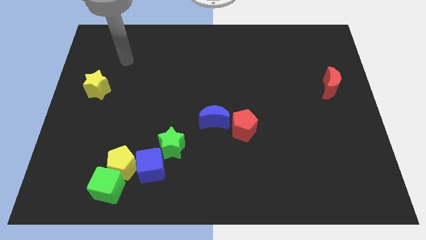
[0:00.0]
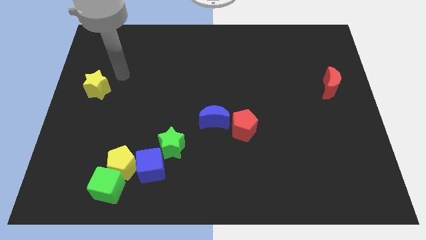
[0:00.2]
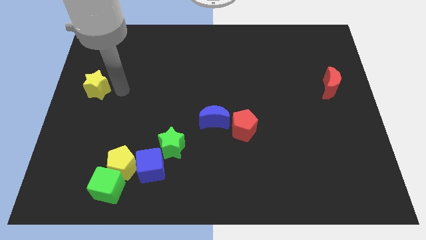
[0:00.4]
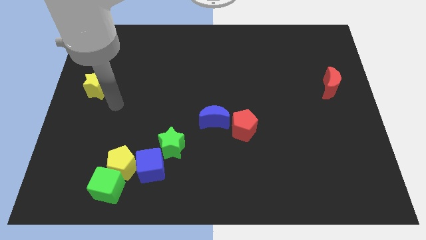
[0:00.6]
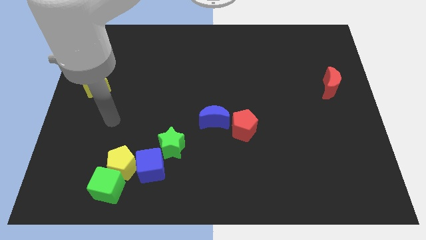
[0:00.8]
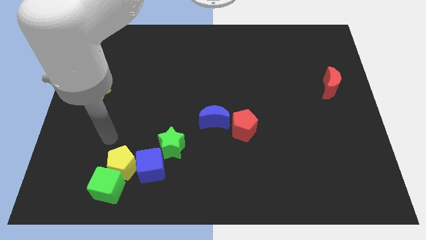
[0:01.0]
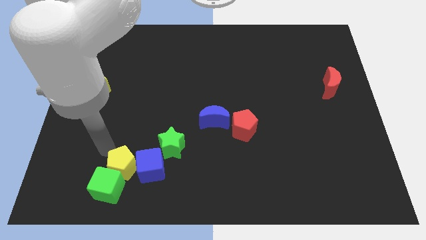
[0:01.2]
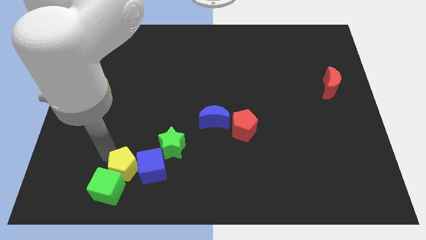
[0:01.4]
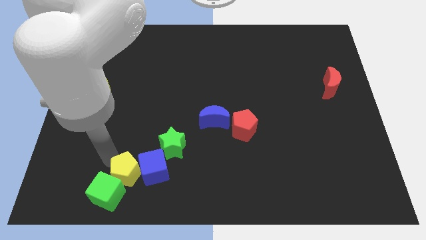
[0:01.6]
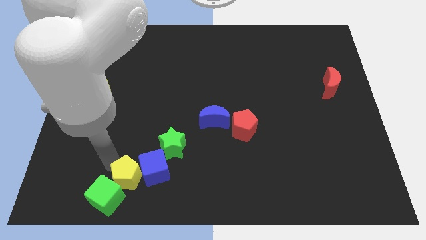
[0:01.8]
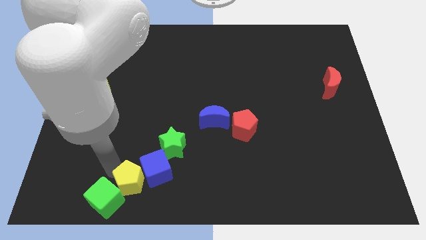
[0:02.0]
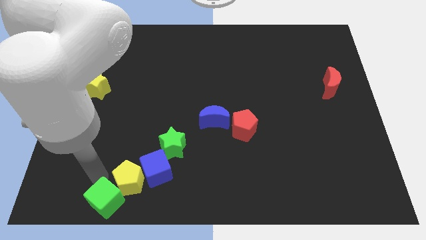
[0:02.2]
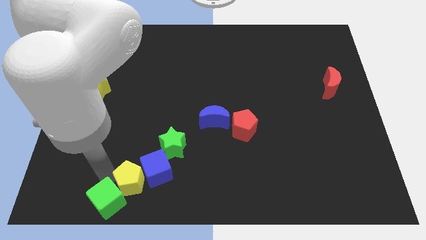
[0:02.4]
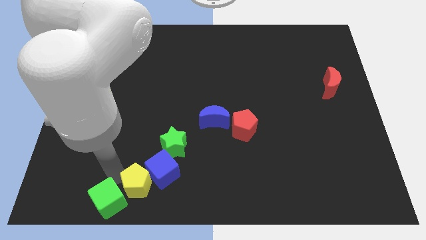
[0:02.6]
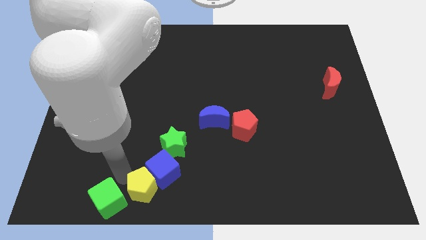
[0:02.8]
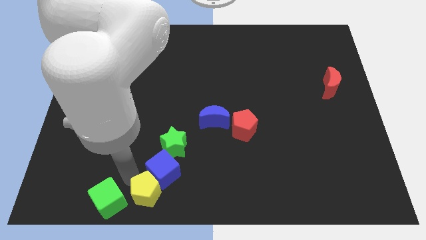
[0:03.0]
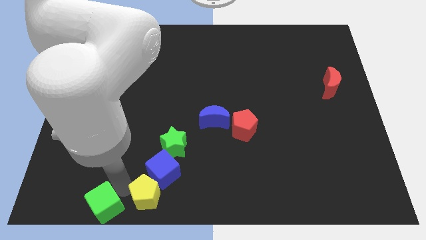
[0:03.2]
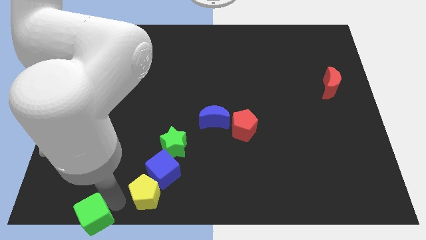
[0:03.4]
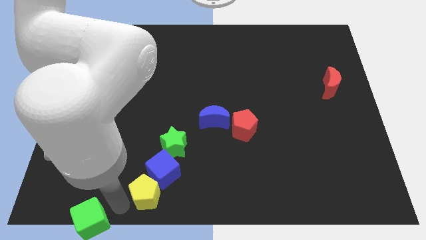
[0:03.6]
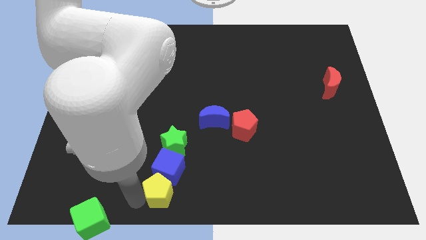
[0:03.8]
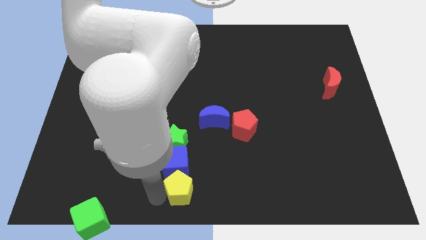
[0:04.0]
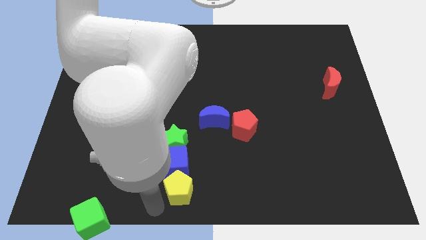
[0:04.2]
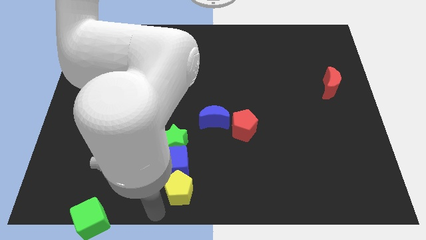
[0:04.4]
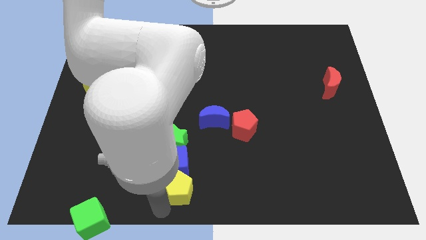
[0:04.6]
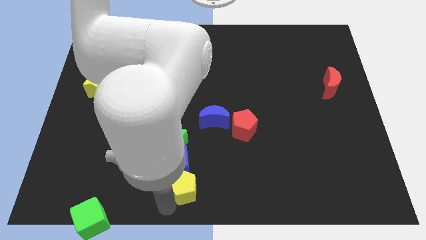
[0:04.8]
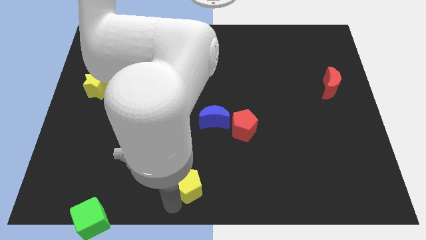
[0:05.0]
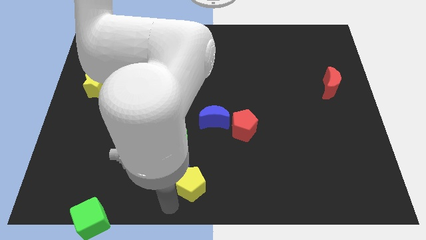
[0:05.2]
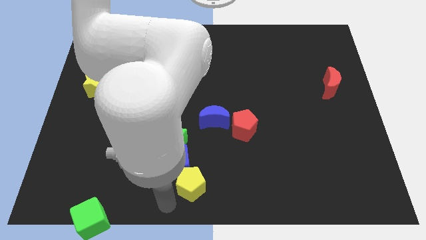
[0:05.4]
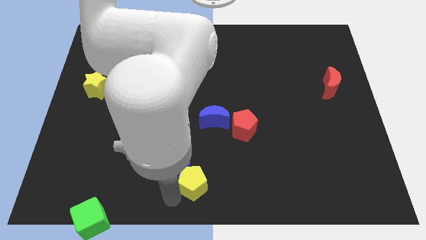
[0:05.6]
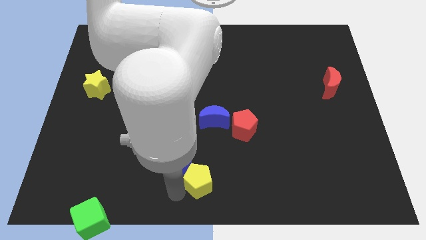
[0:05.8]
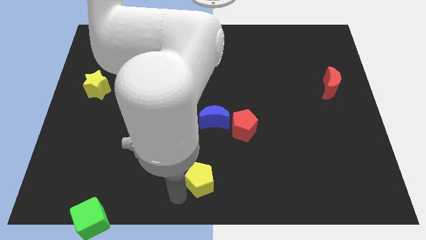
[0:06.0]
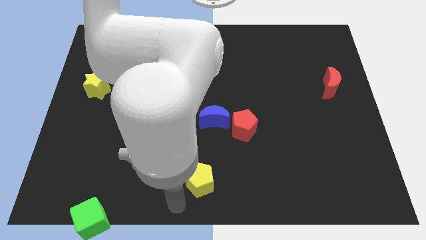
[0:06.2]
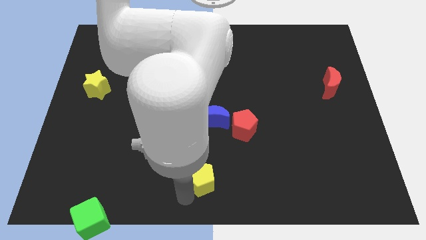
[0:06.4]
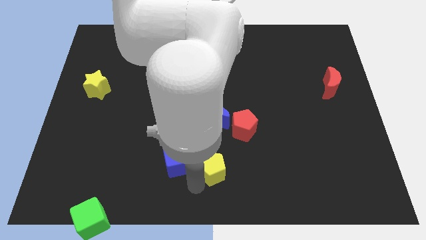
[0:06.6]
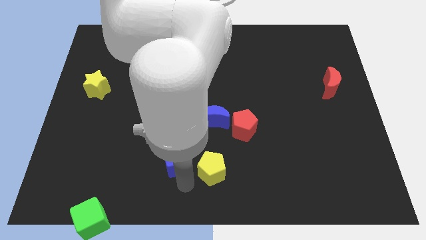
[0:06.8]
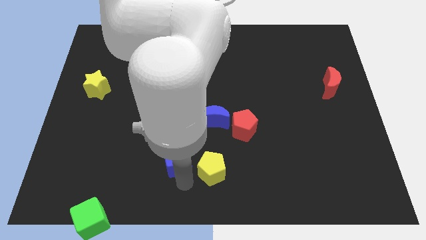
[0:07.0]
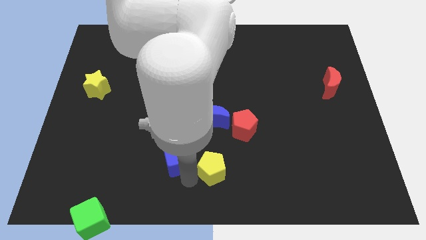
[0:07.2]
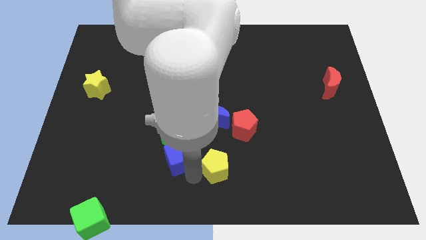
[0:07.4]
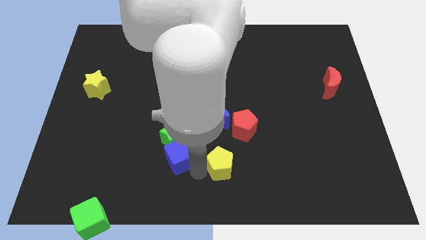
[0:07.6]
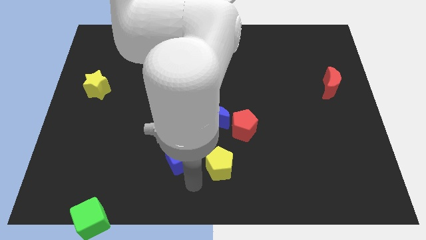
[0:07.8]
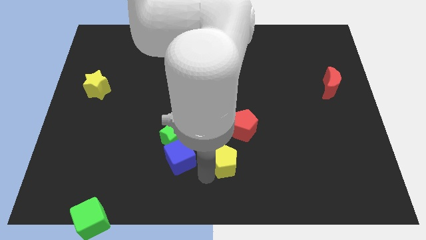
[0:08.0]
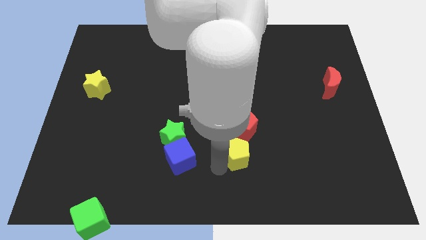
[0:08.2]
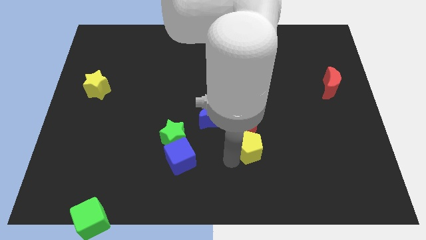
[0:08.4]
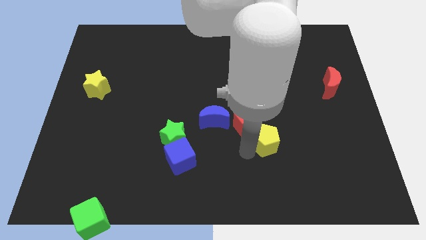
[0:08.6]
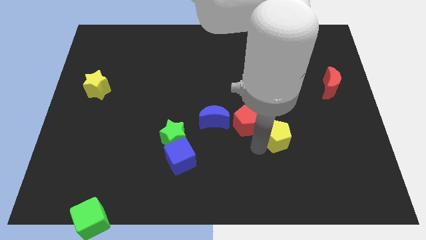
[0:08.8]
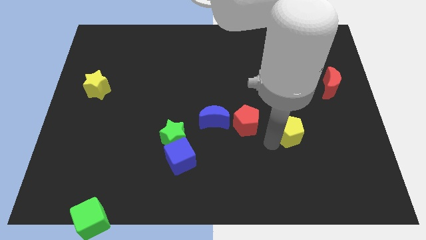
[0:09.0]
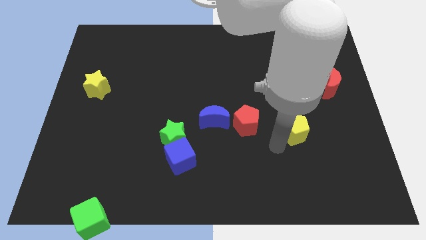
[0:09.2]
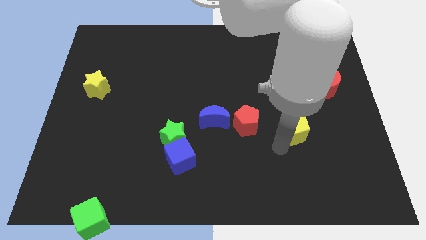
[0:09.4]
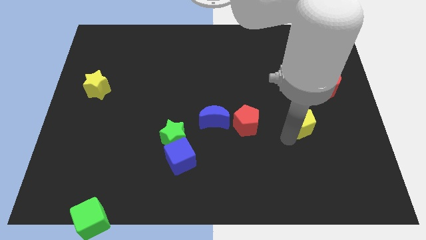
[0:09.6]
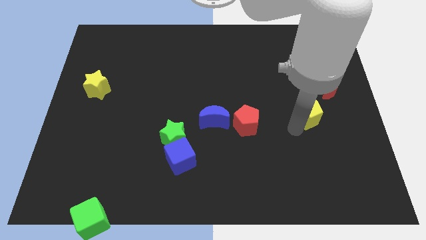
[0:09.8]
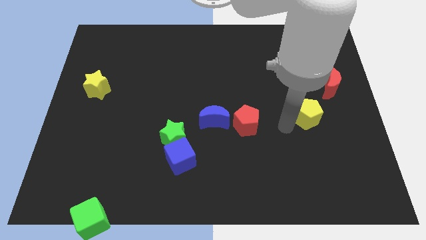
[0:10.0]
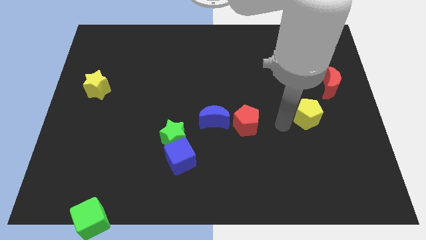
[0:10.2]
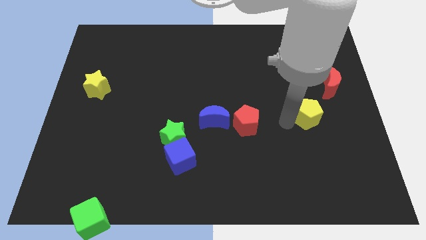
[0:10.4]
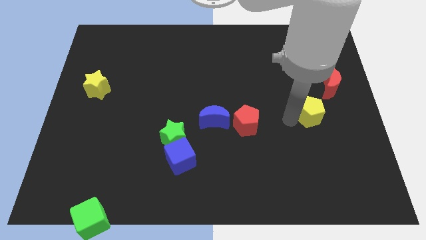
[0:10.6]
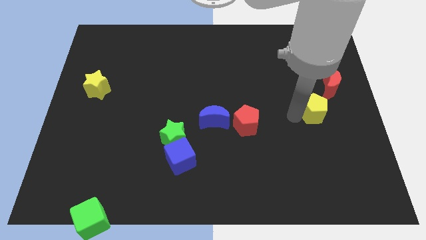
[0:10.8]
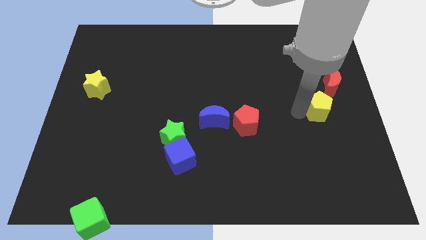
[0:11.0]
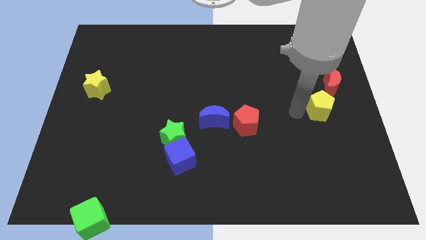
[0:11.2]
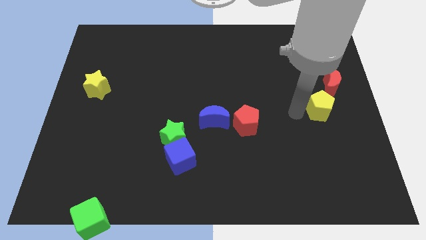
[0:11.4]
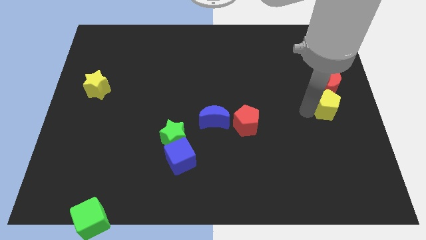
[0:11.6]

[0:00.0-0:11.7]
put the yellow pentagon to the right side
